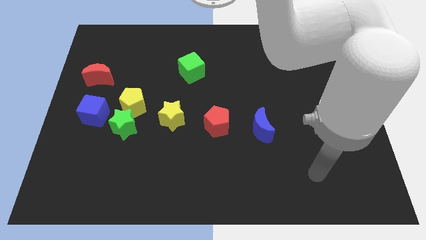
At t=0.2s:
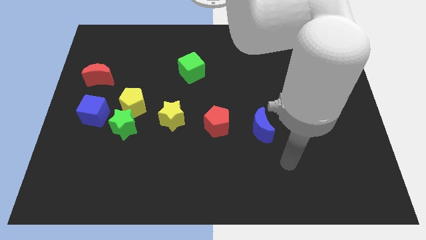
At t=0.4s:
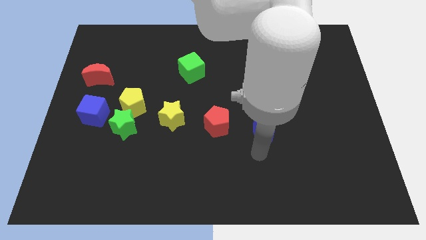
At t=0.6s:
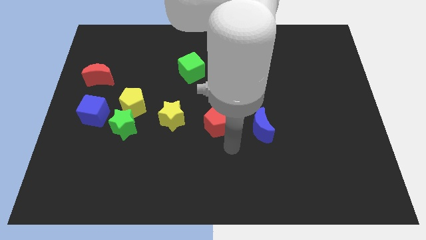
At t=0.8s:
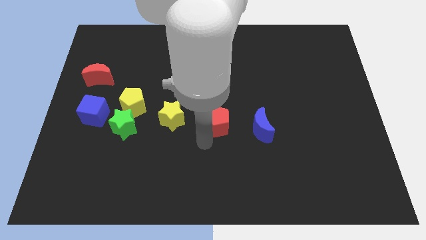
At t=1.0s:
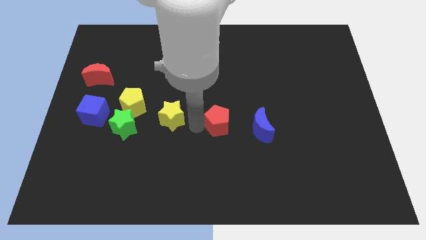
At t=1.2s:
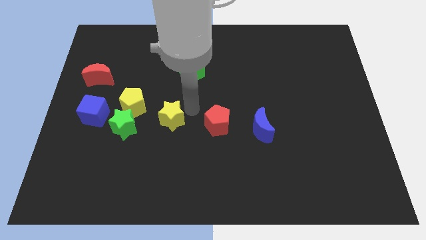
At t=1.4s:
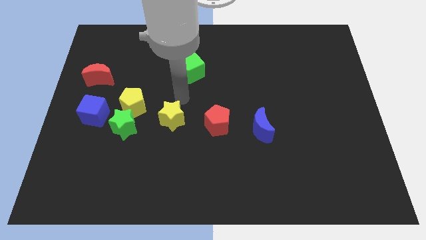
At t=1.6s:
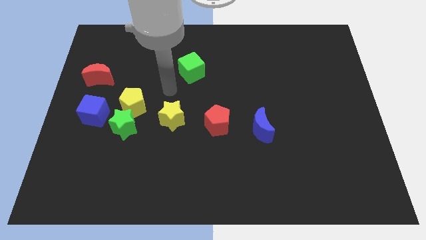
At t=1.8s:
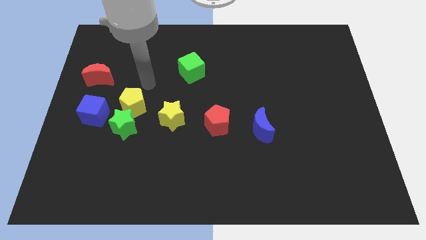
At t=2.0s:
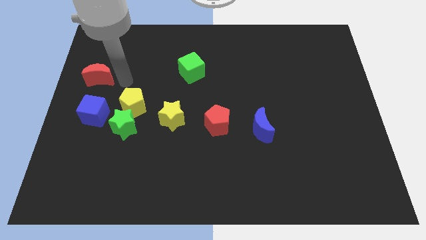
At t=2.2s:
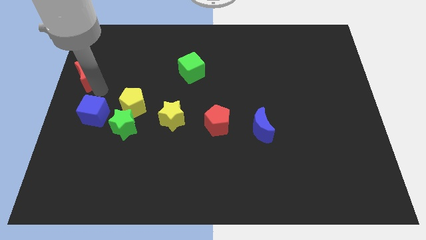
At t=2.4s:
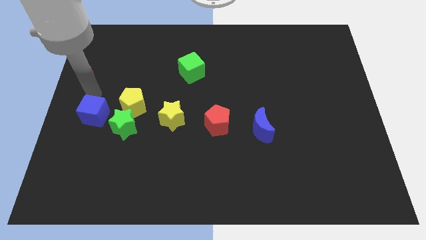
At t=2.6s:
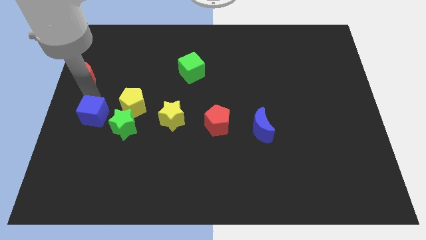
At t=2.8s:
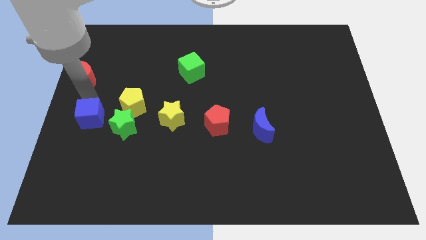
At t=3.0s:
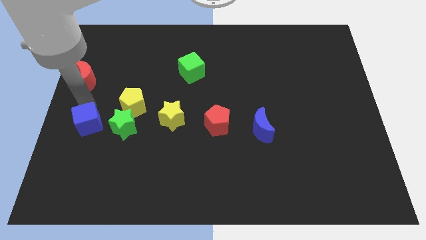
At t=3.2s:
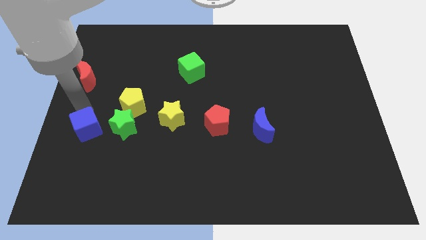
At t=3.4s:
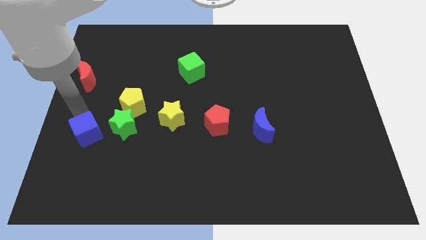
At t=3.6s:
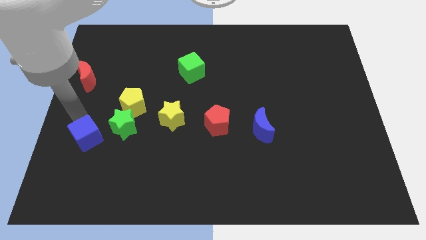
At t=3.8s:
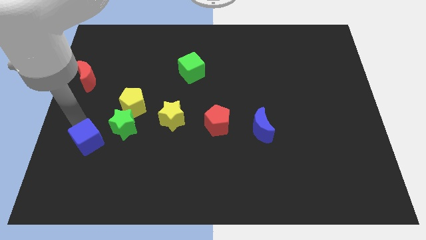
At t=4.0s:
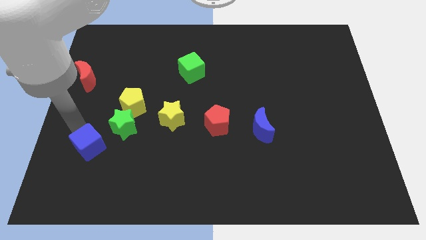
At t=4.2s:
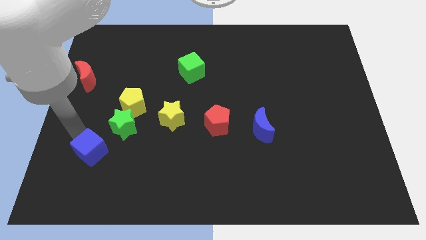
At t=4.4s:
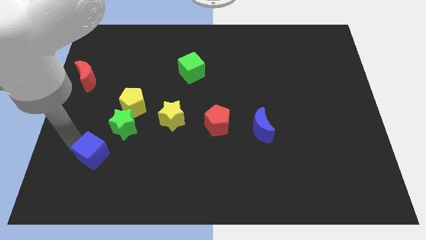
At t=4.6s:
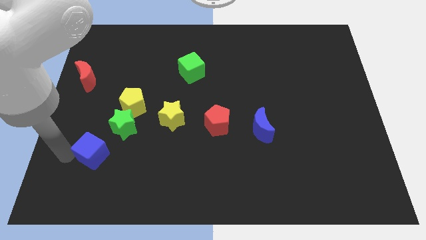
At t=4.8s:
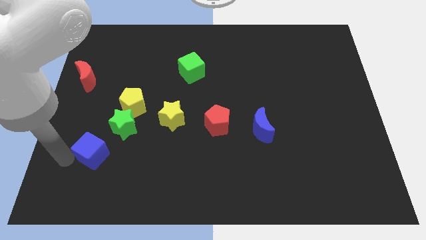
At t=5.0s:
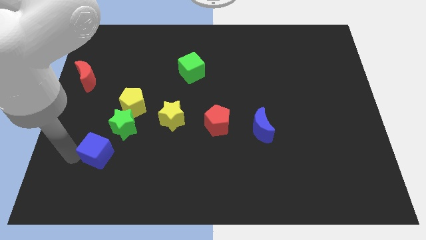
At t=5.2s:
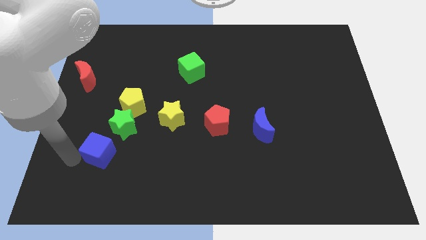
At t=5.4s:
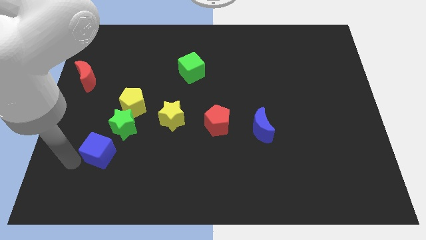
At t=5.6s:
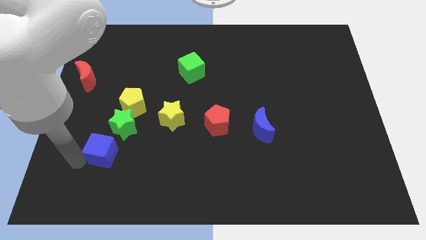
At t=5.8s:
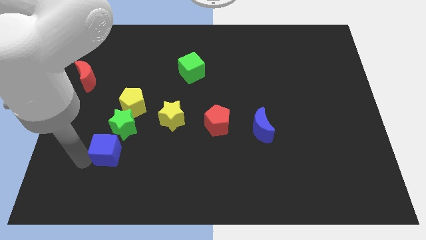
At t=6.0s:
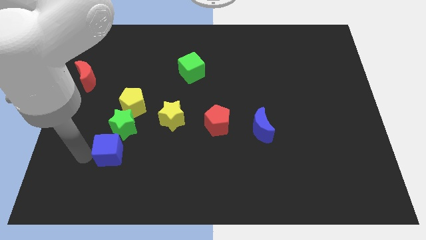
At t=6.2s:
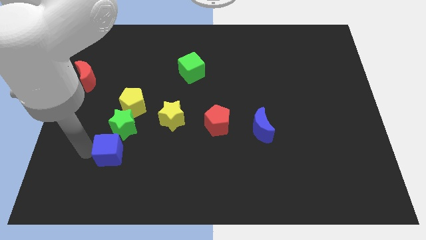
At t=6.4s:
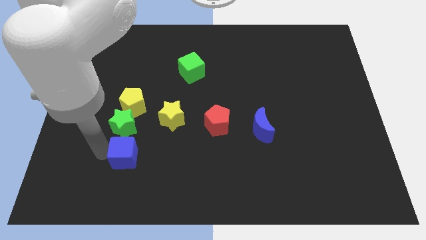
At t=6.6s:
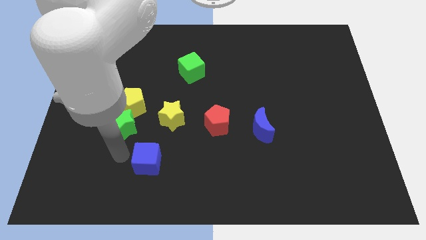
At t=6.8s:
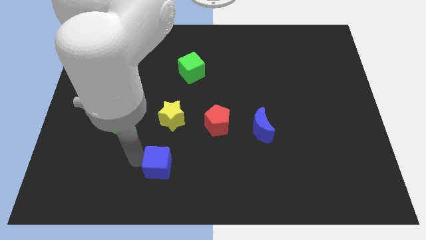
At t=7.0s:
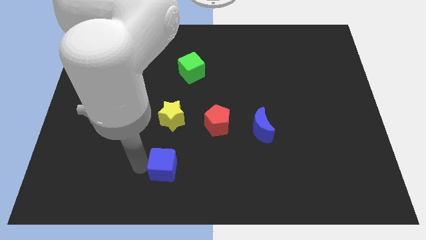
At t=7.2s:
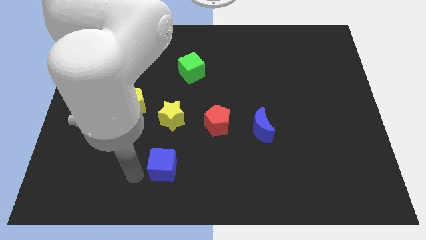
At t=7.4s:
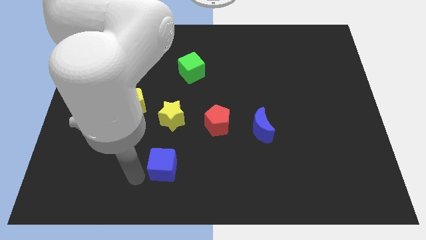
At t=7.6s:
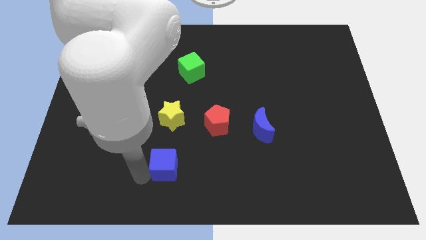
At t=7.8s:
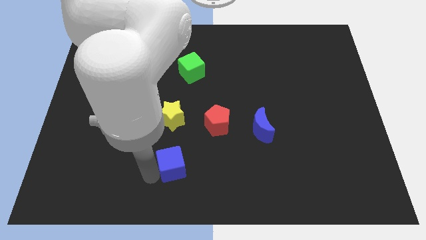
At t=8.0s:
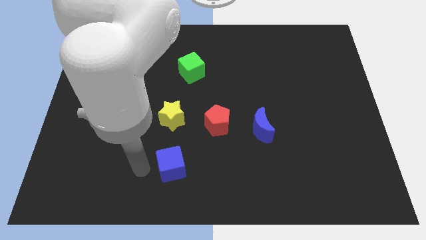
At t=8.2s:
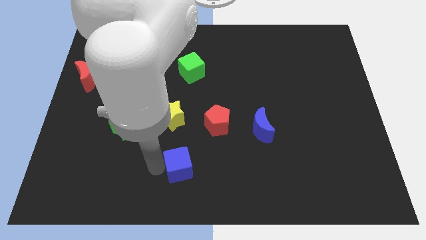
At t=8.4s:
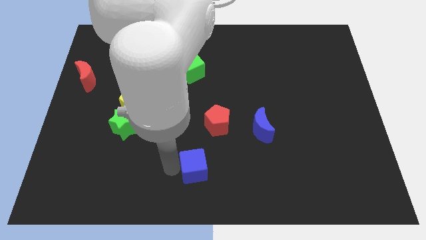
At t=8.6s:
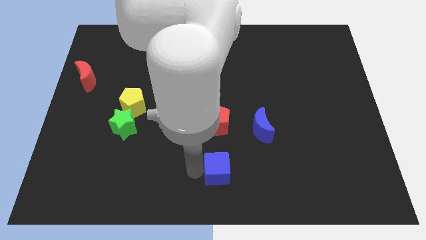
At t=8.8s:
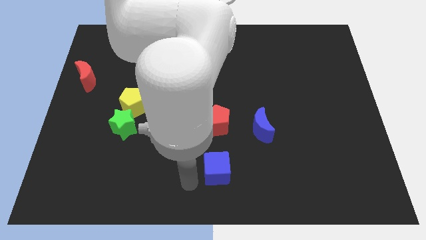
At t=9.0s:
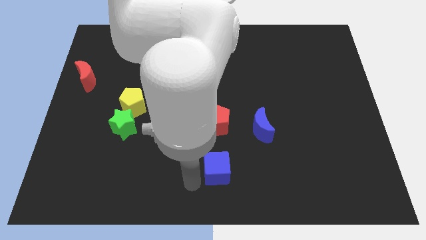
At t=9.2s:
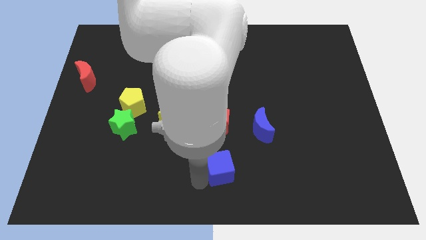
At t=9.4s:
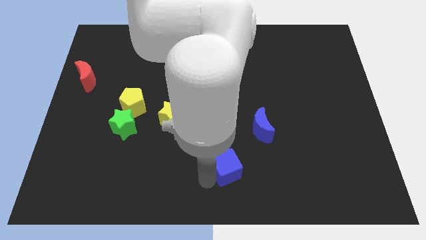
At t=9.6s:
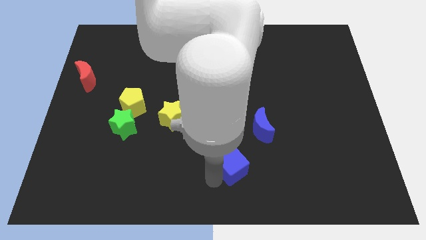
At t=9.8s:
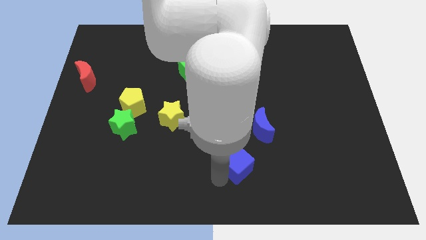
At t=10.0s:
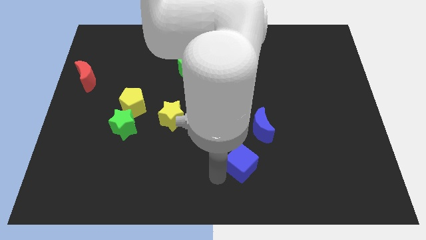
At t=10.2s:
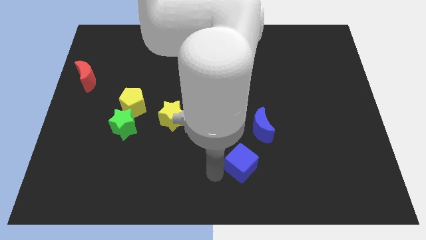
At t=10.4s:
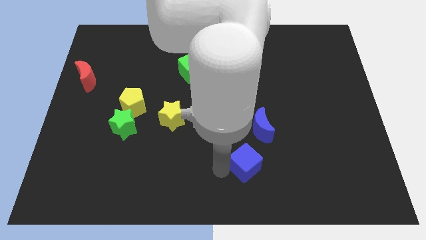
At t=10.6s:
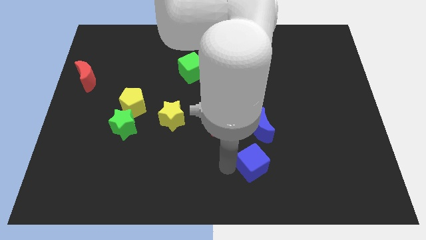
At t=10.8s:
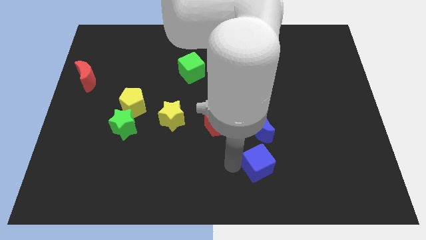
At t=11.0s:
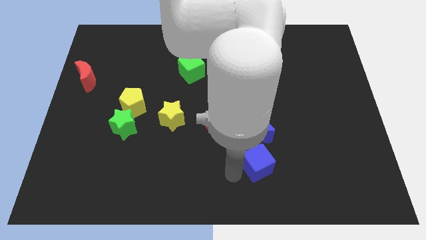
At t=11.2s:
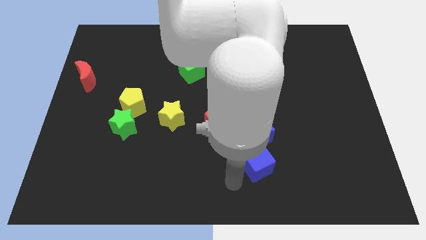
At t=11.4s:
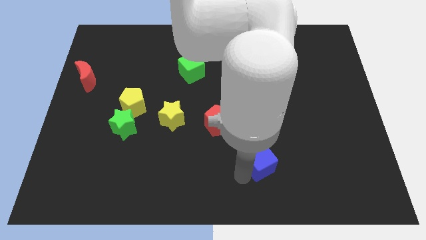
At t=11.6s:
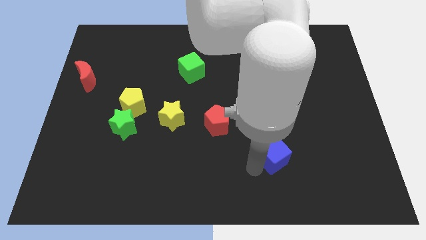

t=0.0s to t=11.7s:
move the blue cube diagonally down and to the right of the blue moon

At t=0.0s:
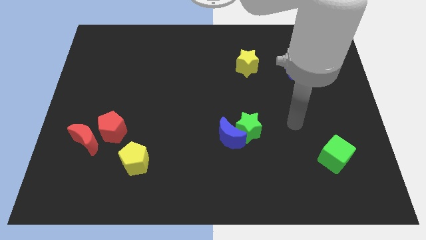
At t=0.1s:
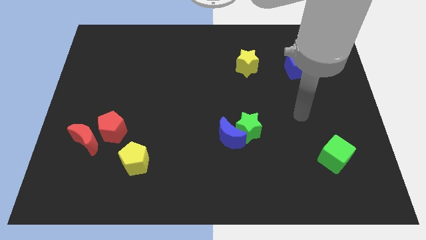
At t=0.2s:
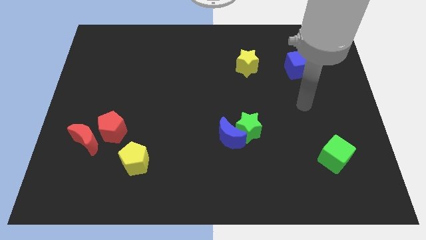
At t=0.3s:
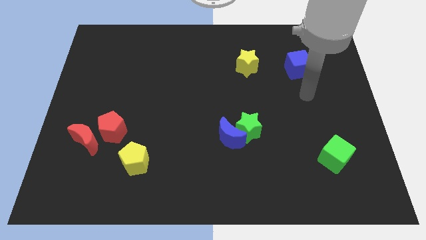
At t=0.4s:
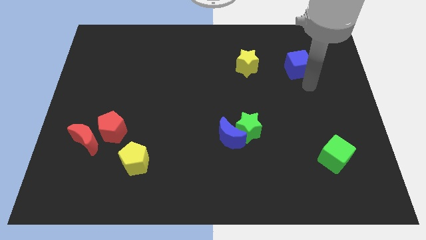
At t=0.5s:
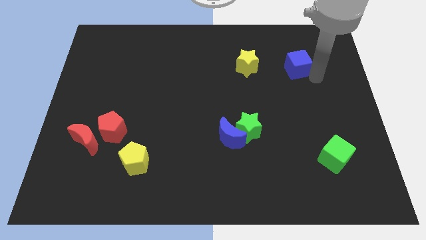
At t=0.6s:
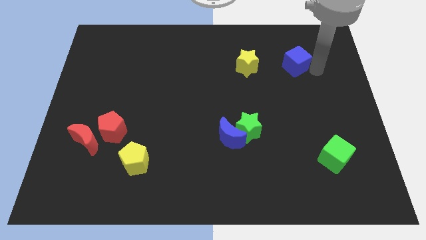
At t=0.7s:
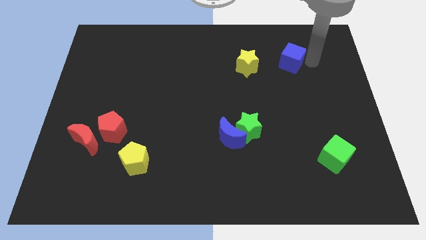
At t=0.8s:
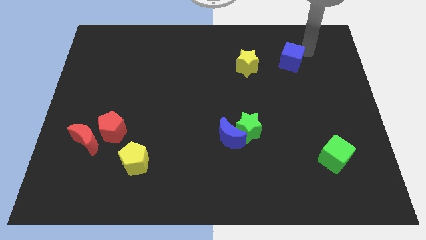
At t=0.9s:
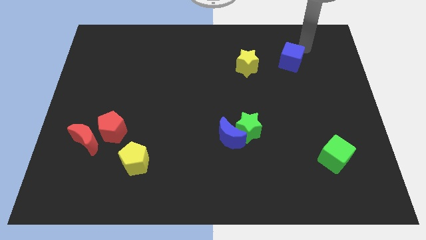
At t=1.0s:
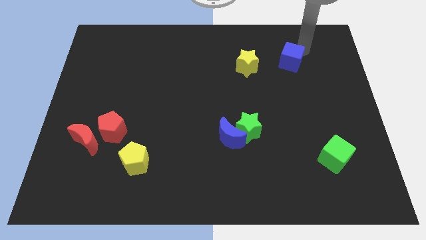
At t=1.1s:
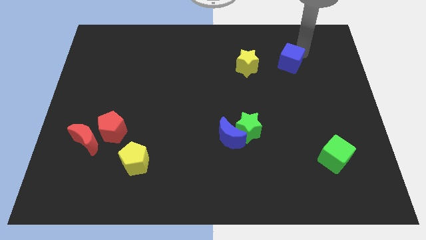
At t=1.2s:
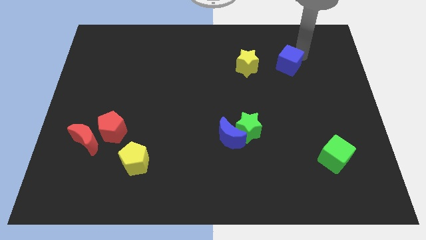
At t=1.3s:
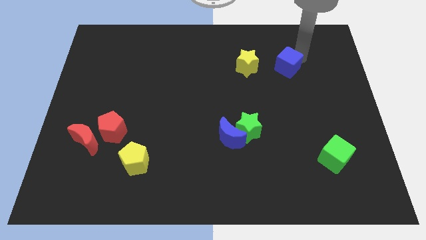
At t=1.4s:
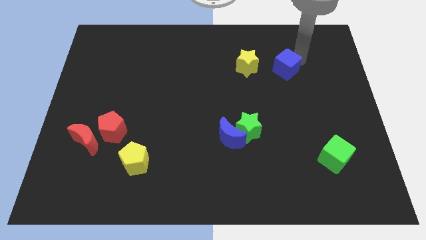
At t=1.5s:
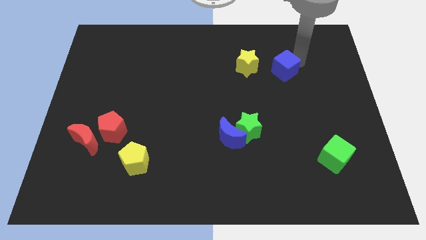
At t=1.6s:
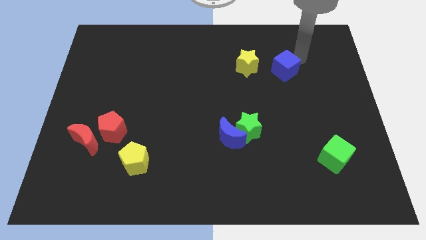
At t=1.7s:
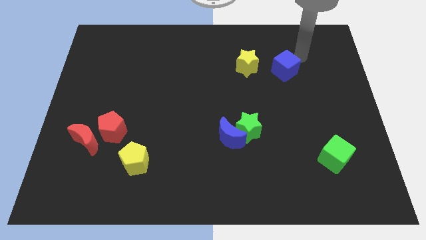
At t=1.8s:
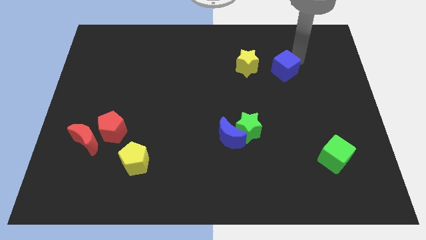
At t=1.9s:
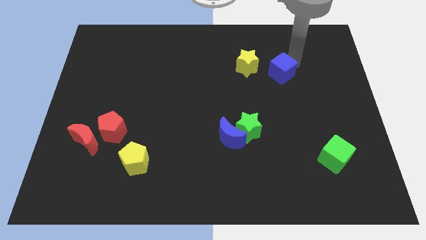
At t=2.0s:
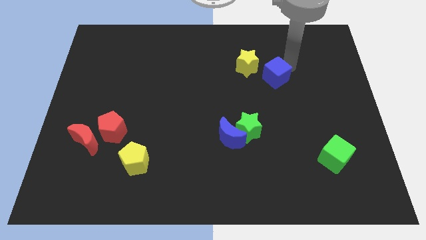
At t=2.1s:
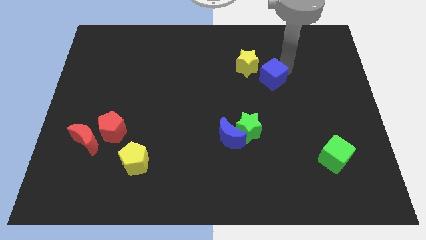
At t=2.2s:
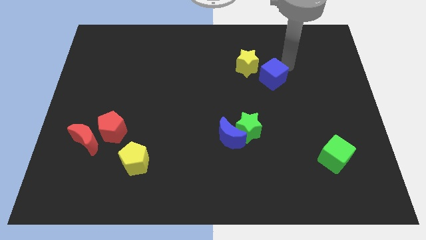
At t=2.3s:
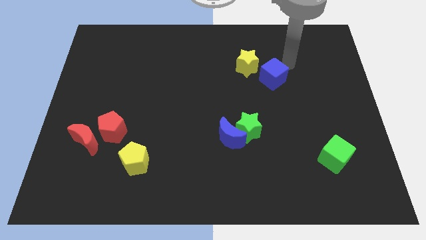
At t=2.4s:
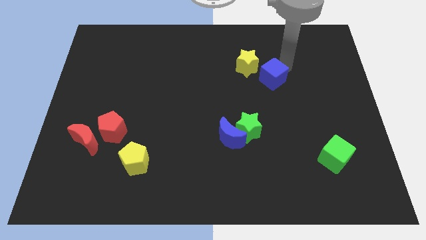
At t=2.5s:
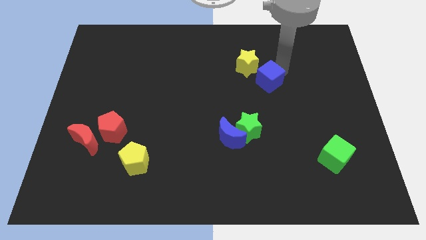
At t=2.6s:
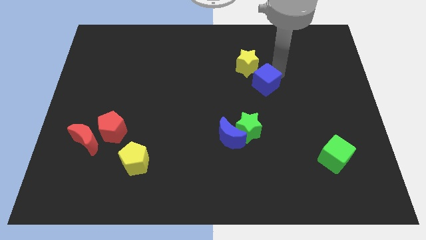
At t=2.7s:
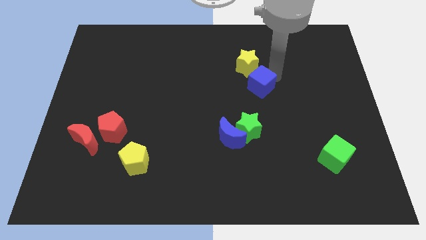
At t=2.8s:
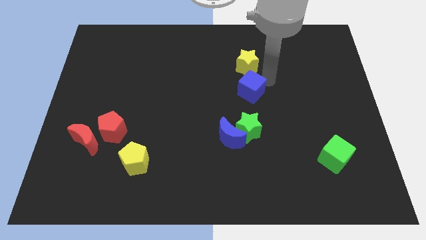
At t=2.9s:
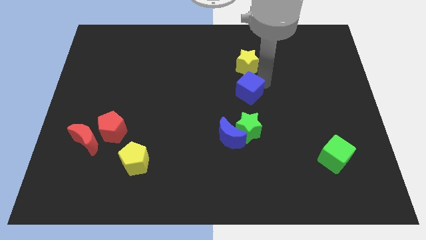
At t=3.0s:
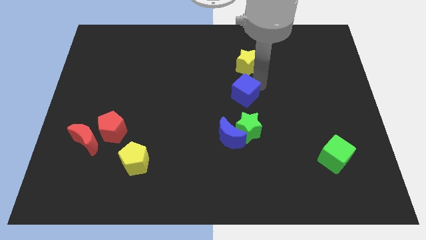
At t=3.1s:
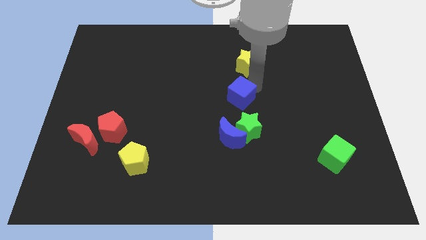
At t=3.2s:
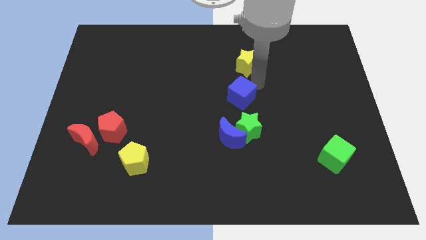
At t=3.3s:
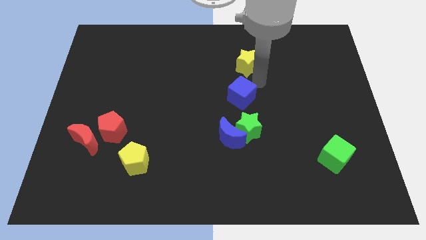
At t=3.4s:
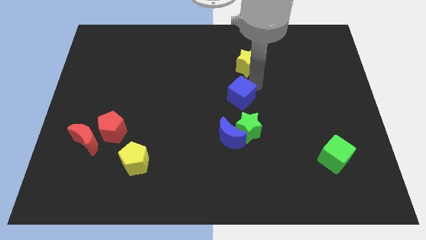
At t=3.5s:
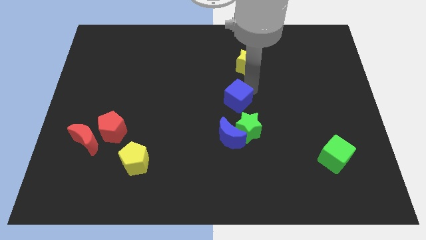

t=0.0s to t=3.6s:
move the blue cube diagonally up and to the left of the green star
